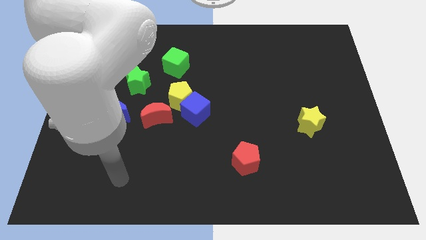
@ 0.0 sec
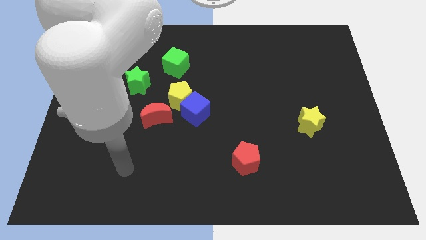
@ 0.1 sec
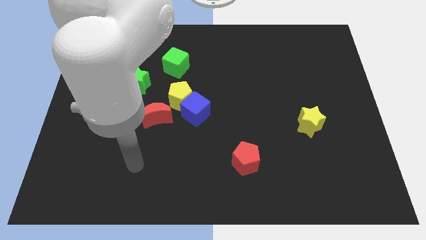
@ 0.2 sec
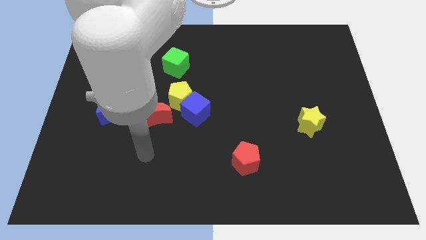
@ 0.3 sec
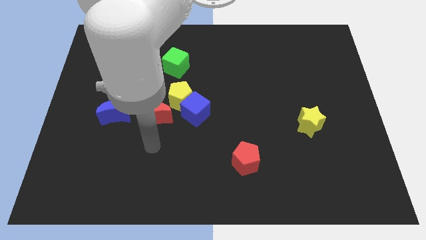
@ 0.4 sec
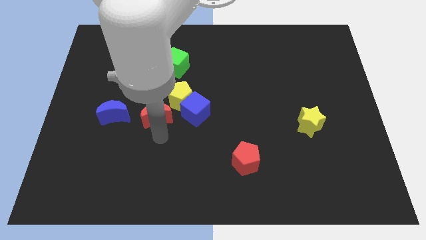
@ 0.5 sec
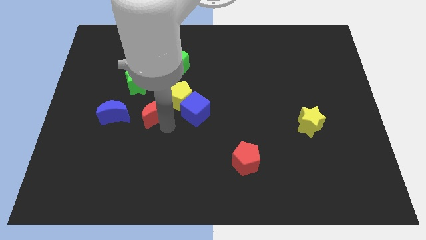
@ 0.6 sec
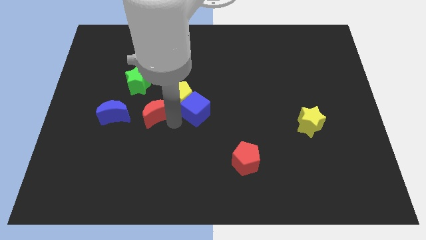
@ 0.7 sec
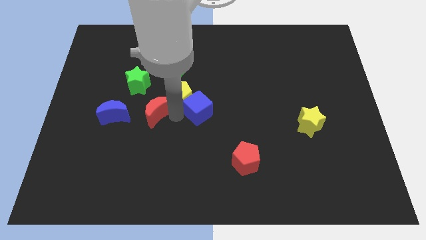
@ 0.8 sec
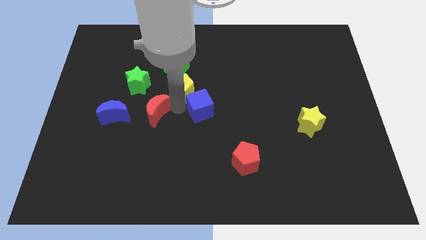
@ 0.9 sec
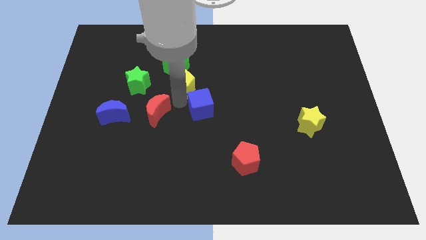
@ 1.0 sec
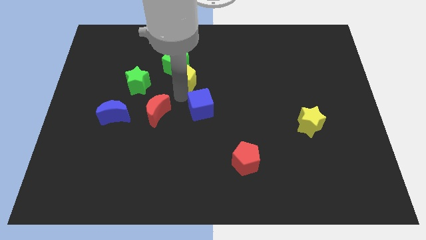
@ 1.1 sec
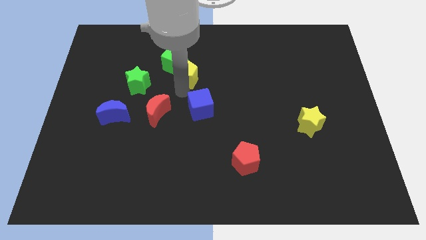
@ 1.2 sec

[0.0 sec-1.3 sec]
move the yellow pentagon away from the blue cube and red moon

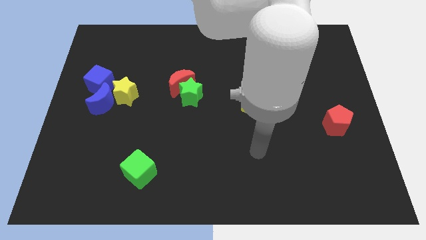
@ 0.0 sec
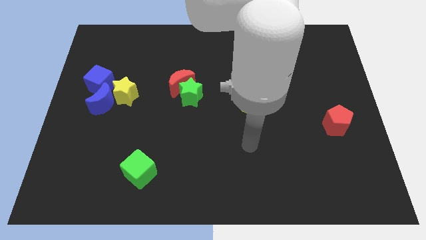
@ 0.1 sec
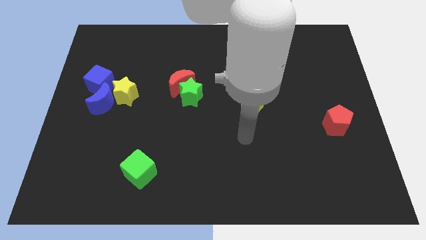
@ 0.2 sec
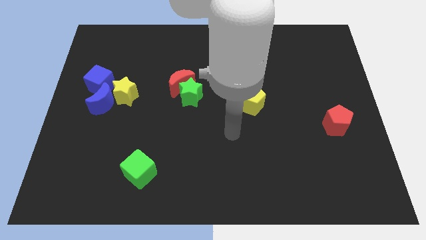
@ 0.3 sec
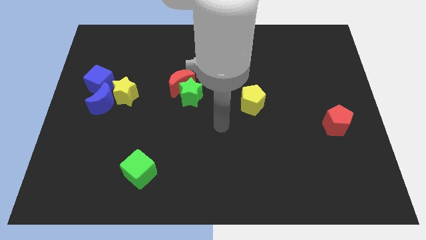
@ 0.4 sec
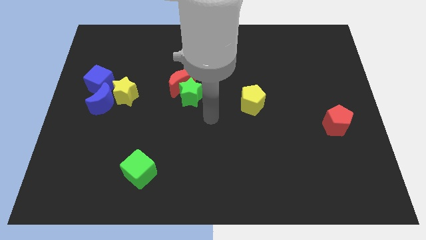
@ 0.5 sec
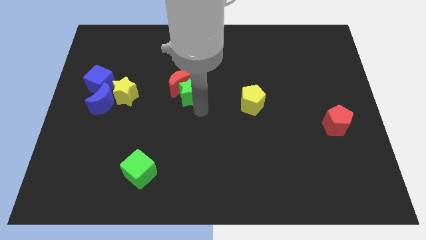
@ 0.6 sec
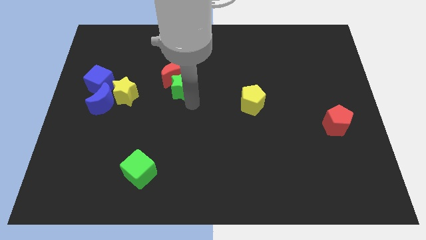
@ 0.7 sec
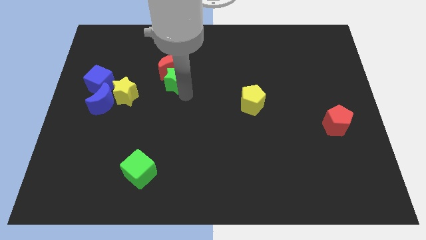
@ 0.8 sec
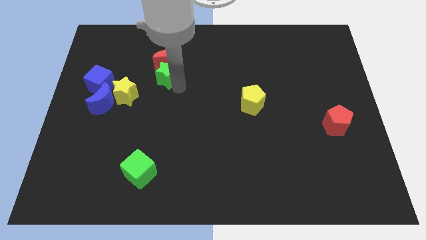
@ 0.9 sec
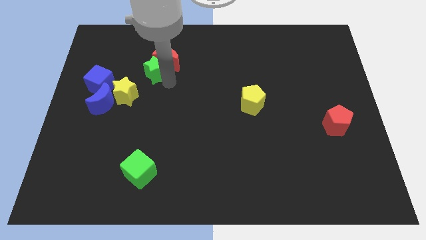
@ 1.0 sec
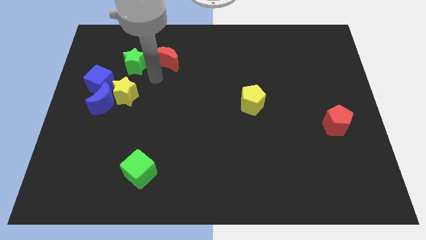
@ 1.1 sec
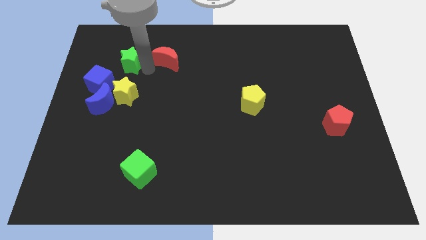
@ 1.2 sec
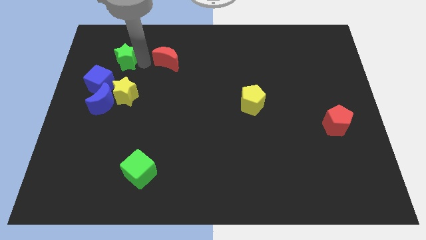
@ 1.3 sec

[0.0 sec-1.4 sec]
separate the red moon from the green star

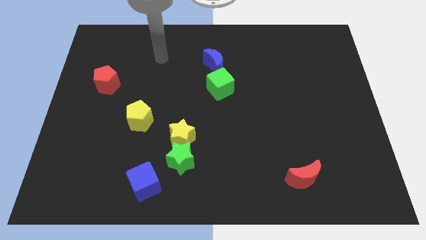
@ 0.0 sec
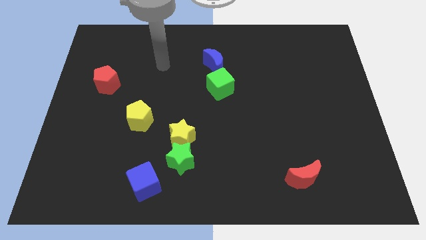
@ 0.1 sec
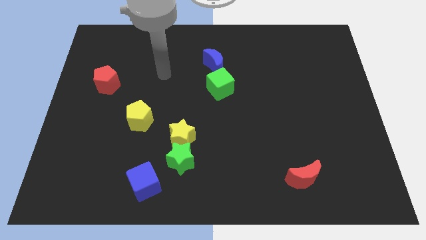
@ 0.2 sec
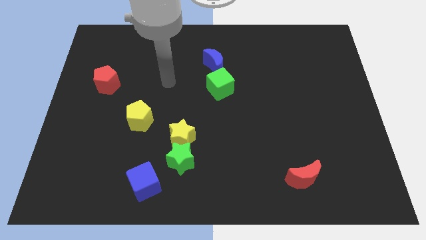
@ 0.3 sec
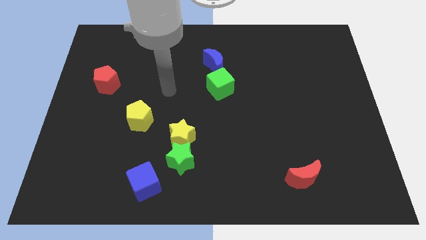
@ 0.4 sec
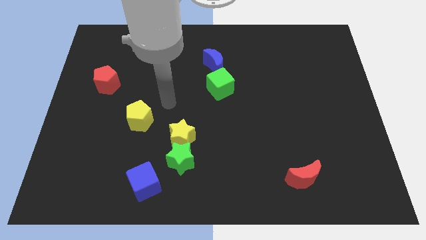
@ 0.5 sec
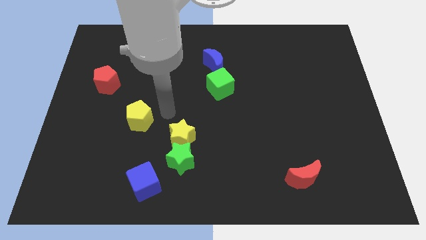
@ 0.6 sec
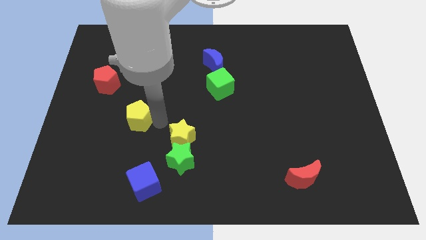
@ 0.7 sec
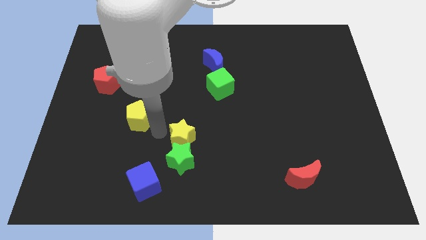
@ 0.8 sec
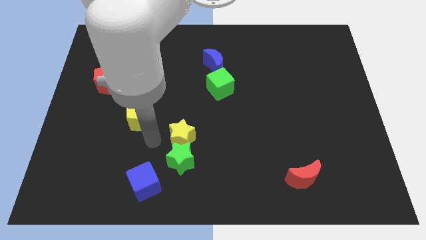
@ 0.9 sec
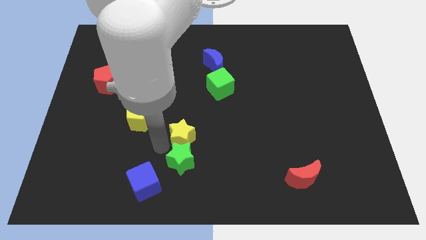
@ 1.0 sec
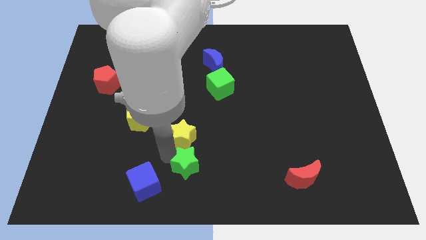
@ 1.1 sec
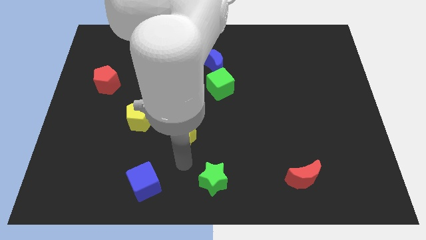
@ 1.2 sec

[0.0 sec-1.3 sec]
pull the yellow star apart from the green star

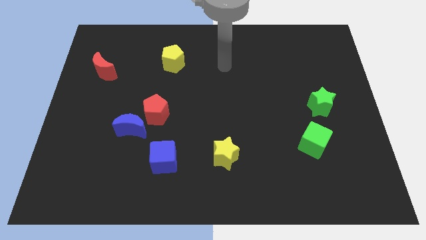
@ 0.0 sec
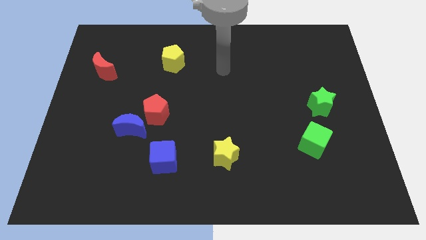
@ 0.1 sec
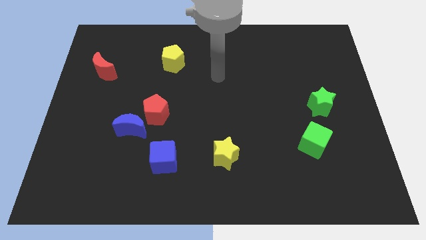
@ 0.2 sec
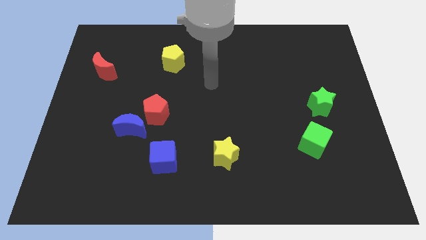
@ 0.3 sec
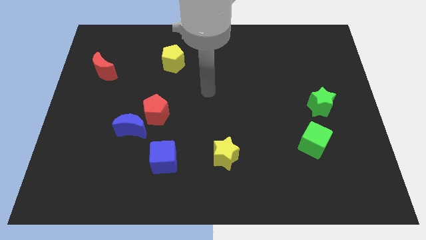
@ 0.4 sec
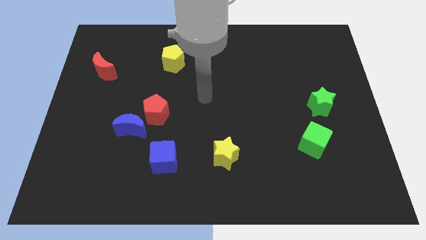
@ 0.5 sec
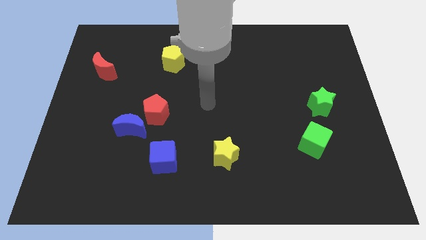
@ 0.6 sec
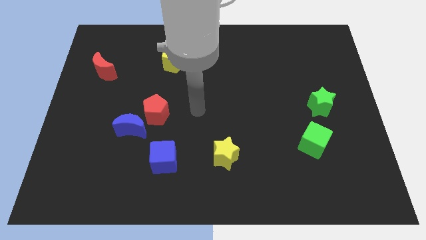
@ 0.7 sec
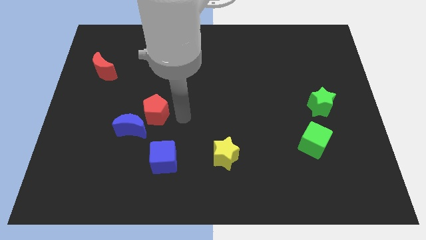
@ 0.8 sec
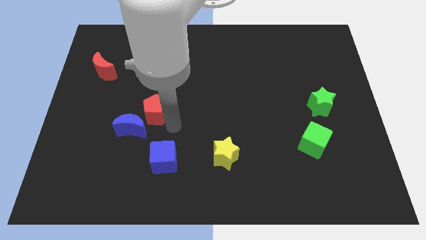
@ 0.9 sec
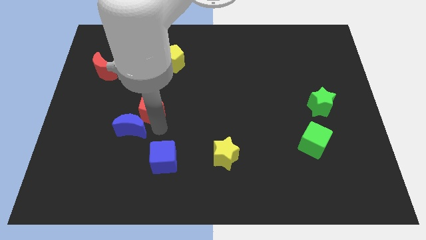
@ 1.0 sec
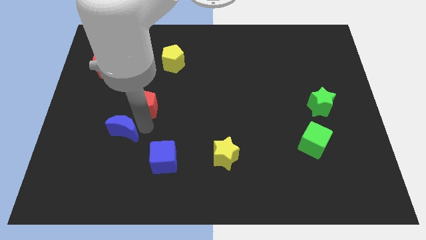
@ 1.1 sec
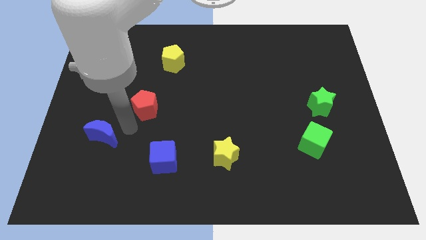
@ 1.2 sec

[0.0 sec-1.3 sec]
move the red pentagon away from the blue moon

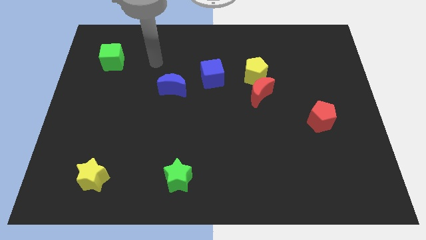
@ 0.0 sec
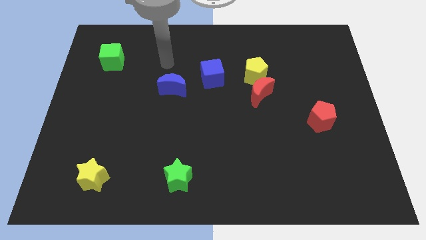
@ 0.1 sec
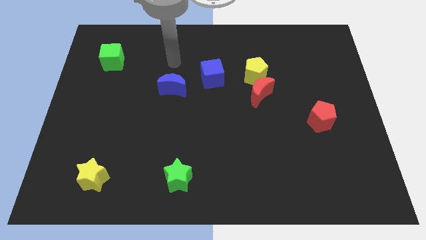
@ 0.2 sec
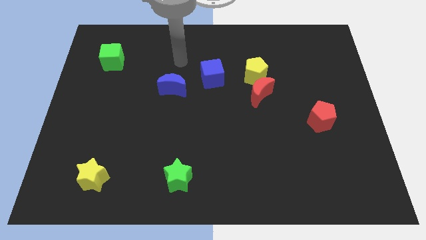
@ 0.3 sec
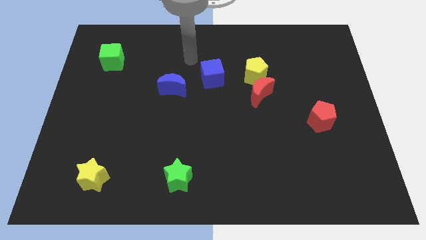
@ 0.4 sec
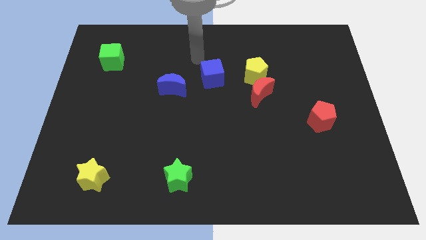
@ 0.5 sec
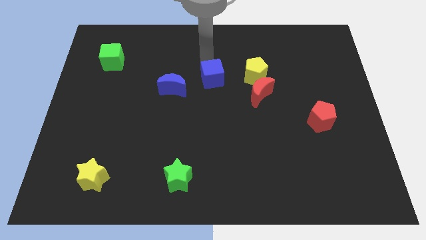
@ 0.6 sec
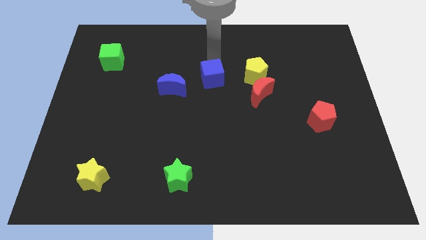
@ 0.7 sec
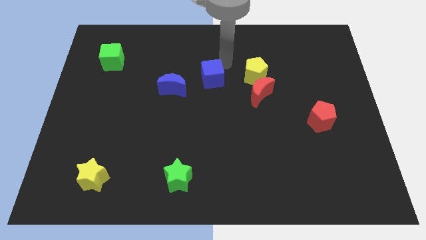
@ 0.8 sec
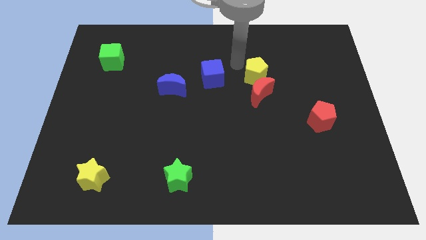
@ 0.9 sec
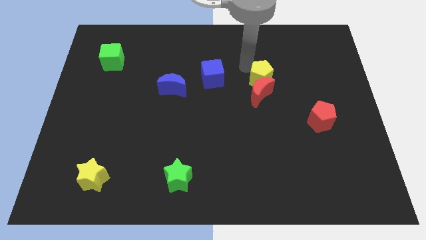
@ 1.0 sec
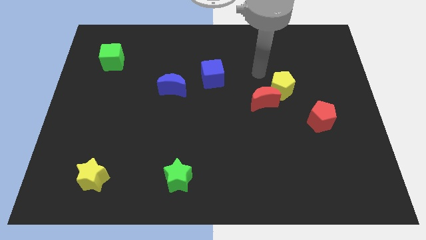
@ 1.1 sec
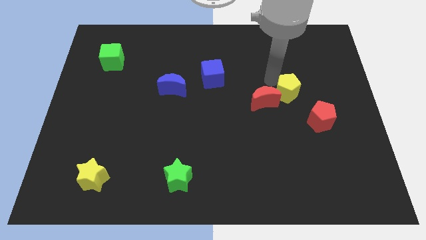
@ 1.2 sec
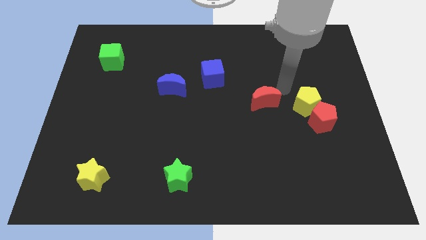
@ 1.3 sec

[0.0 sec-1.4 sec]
separate the red moon from the yellow pentagon

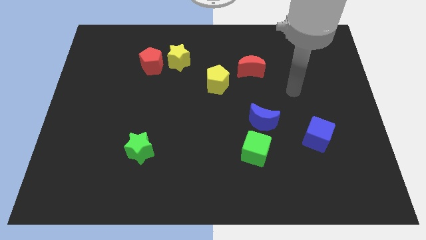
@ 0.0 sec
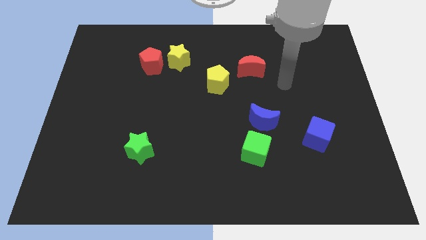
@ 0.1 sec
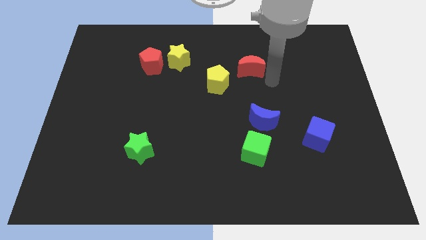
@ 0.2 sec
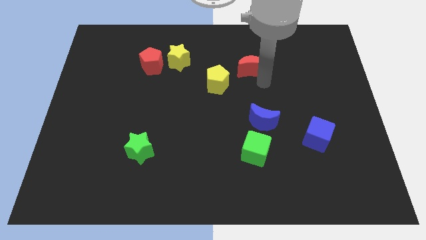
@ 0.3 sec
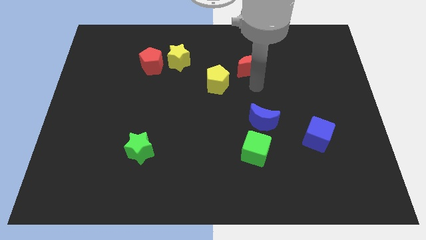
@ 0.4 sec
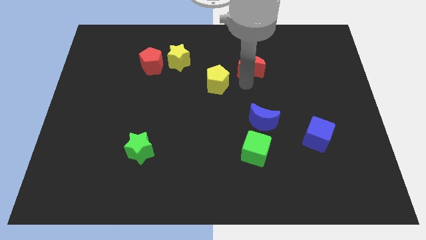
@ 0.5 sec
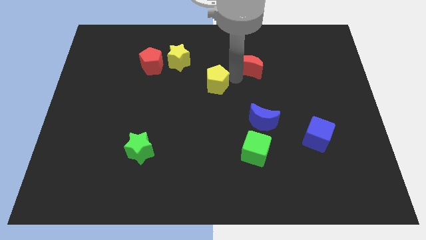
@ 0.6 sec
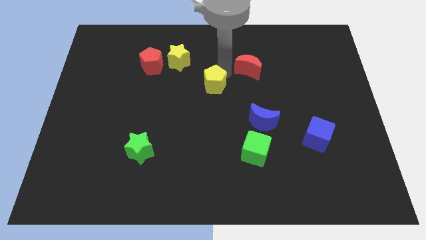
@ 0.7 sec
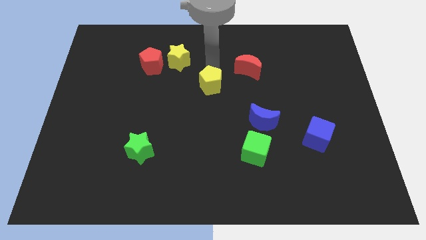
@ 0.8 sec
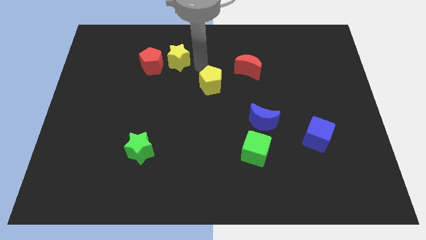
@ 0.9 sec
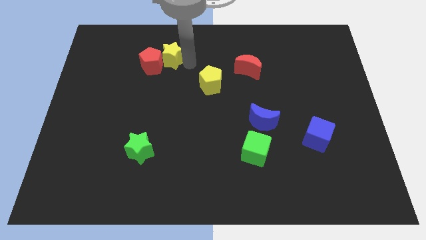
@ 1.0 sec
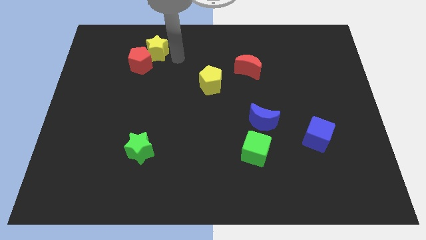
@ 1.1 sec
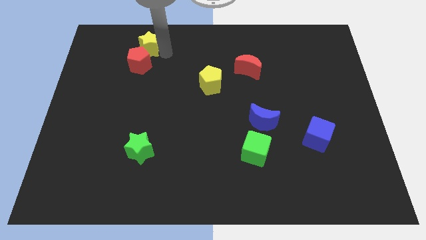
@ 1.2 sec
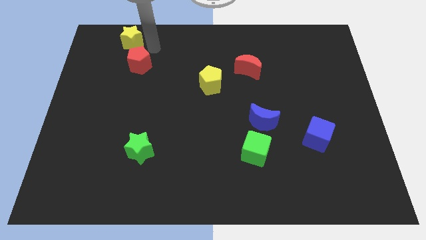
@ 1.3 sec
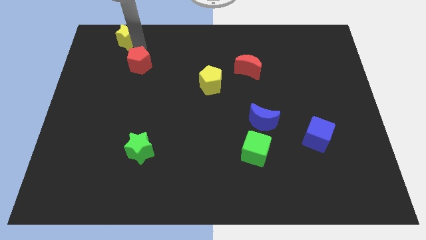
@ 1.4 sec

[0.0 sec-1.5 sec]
pull the red pentagon apart from the yellow star

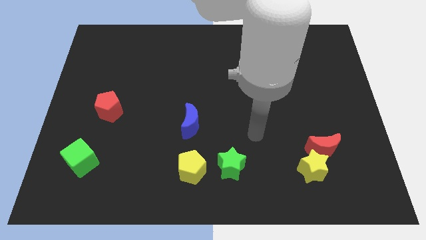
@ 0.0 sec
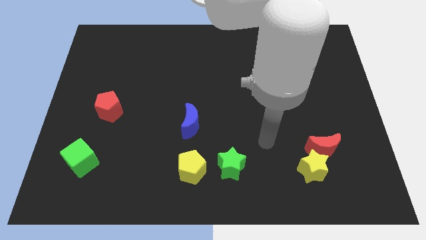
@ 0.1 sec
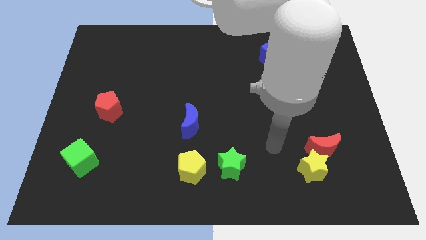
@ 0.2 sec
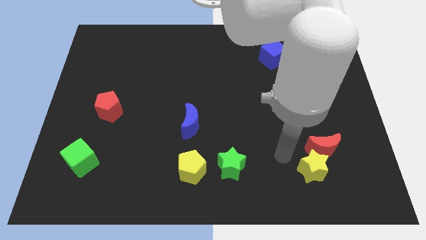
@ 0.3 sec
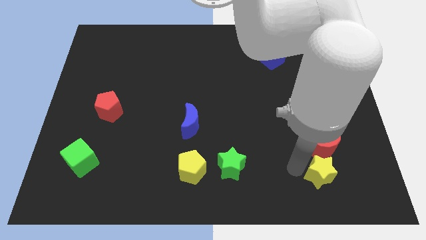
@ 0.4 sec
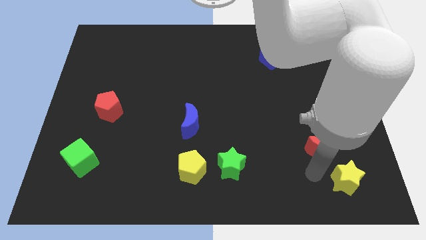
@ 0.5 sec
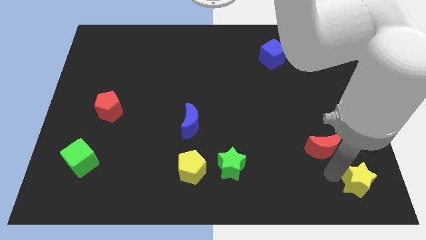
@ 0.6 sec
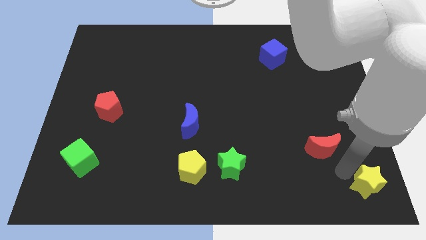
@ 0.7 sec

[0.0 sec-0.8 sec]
pull the red moon apart from the yellow star

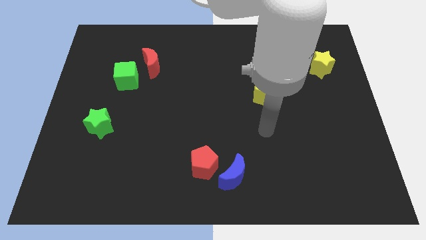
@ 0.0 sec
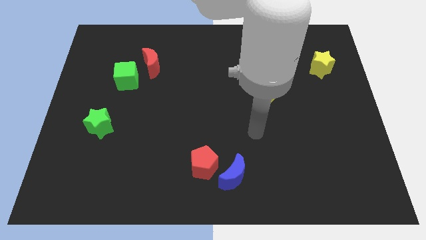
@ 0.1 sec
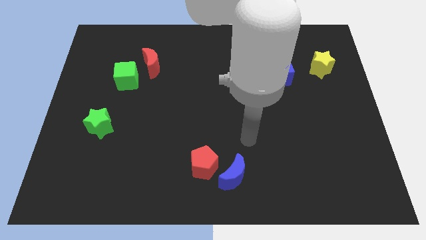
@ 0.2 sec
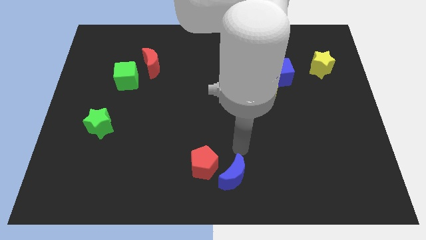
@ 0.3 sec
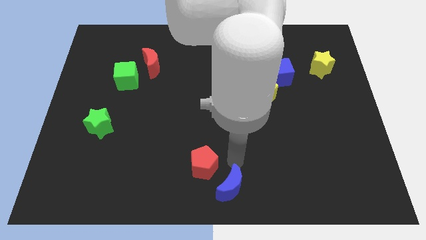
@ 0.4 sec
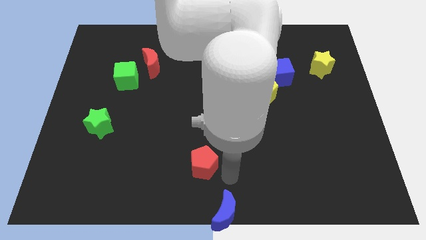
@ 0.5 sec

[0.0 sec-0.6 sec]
separate the red pentagon from the blue moon
